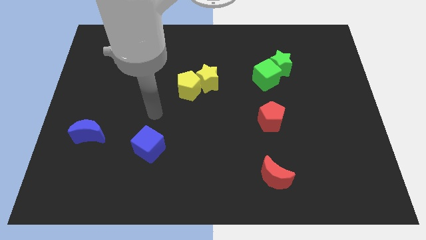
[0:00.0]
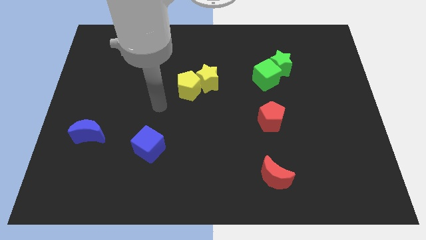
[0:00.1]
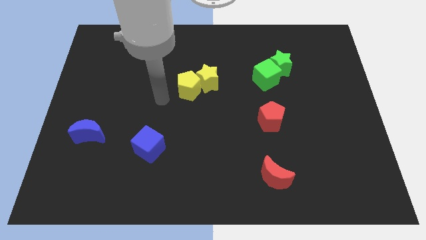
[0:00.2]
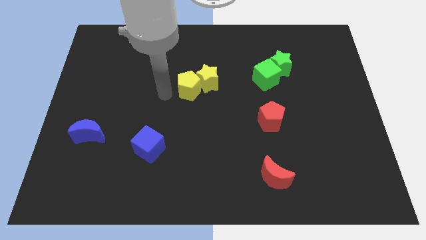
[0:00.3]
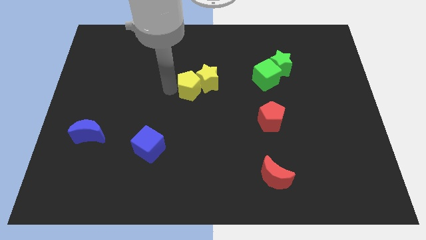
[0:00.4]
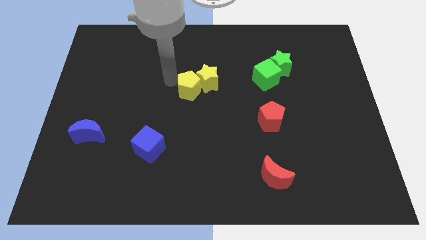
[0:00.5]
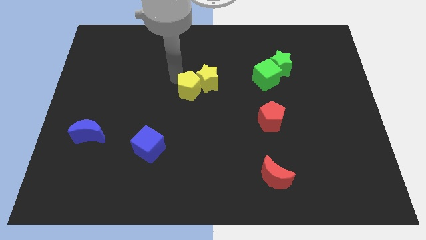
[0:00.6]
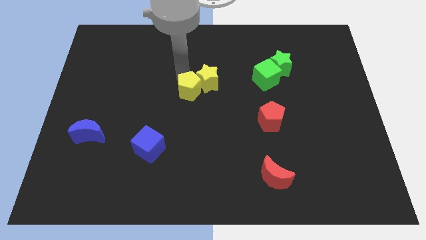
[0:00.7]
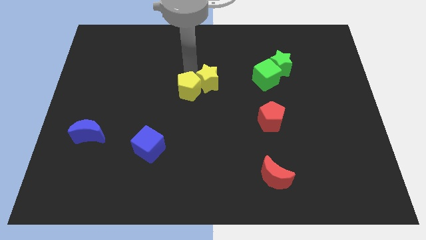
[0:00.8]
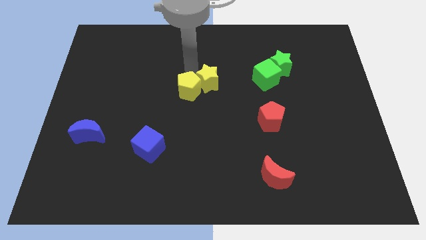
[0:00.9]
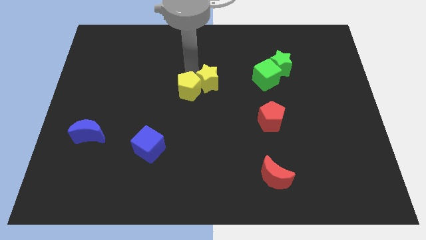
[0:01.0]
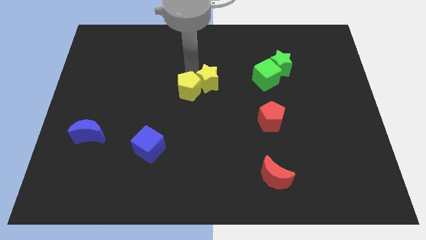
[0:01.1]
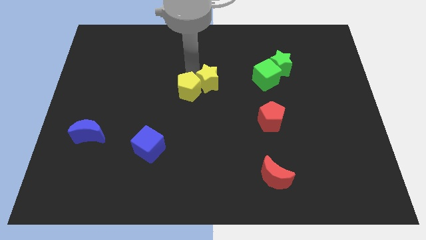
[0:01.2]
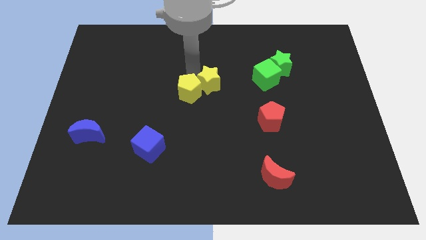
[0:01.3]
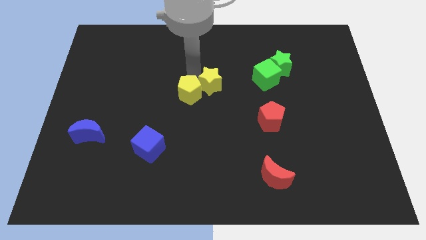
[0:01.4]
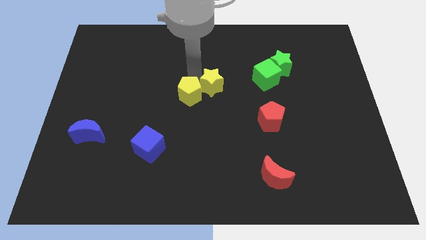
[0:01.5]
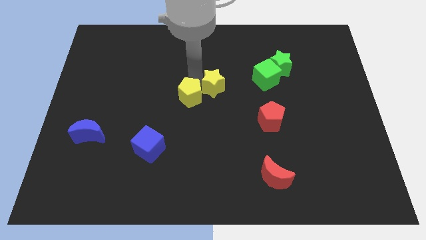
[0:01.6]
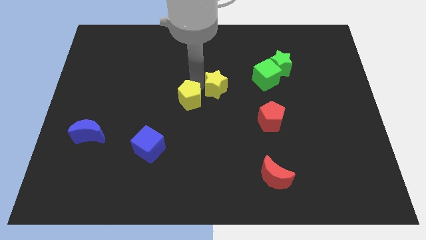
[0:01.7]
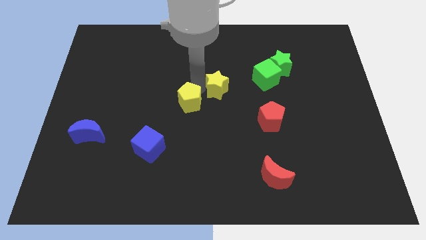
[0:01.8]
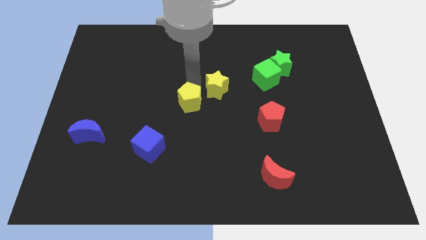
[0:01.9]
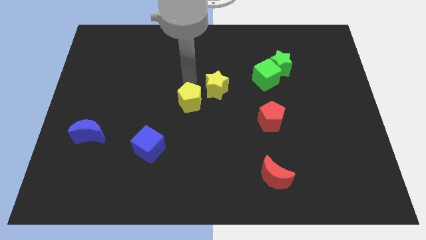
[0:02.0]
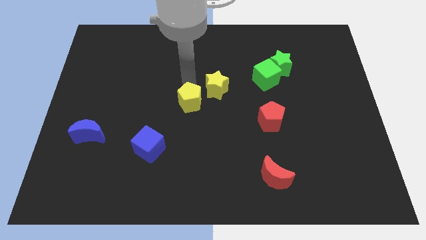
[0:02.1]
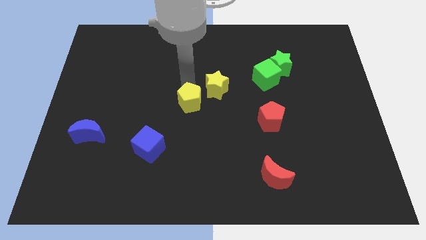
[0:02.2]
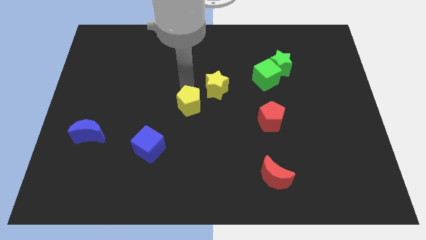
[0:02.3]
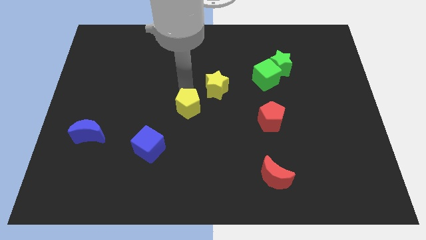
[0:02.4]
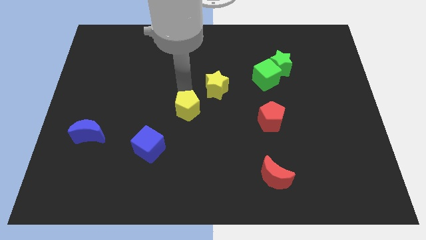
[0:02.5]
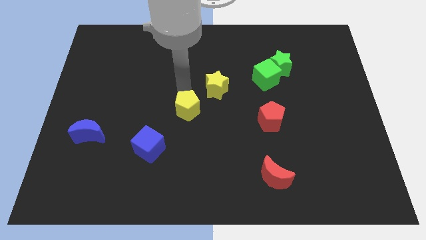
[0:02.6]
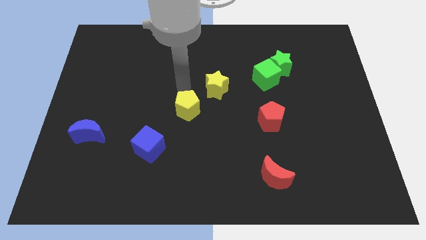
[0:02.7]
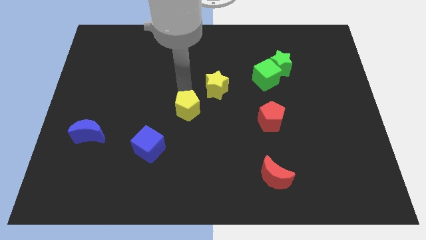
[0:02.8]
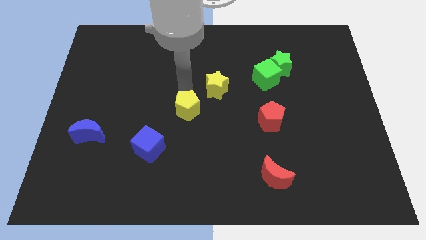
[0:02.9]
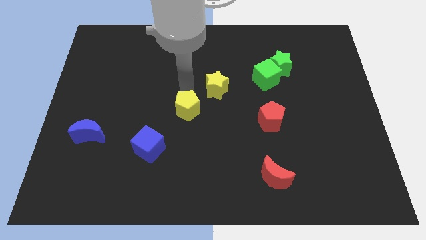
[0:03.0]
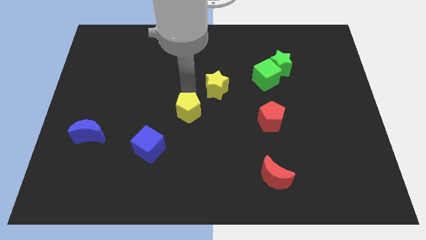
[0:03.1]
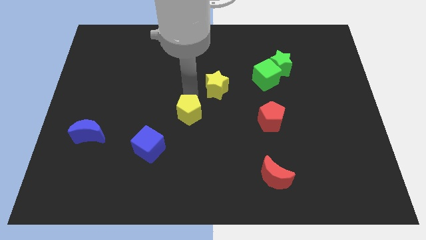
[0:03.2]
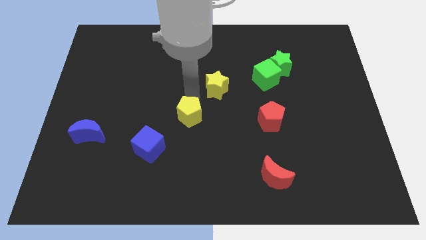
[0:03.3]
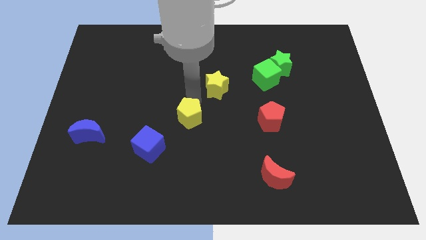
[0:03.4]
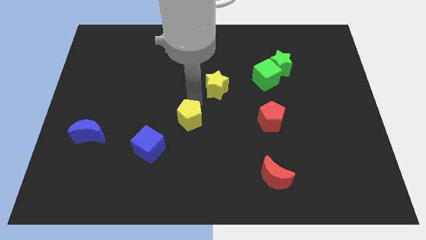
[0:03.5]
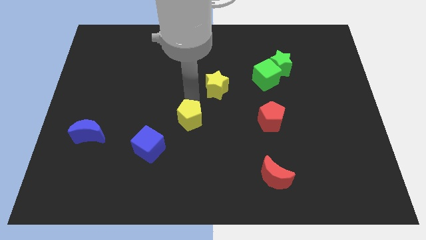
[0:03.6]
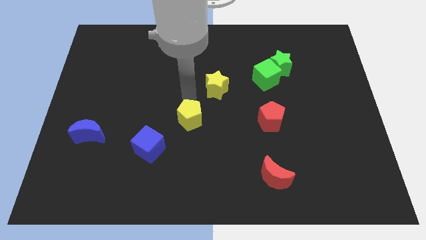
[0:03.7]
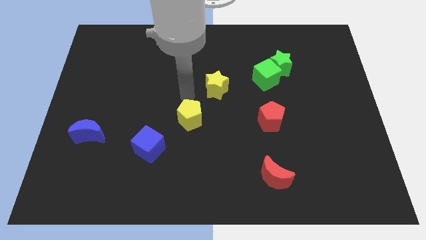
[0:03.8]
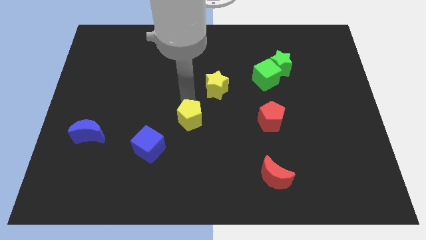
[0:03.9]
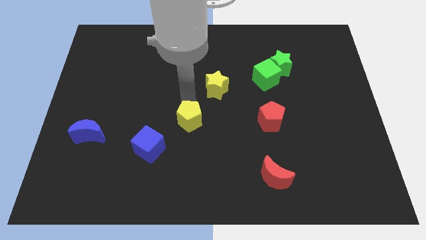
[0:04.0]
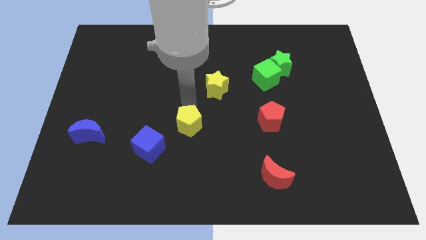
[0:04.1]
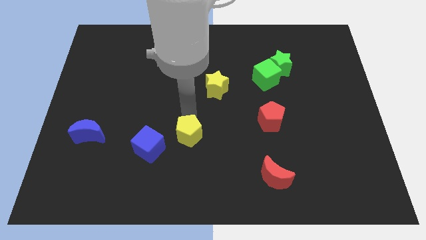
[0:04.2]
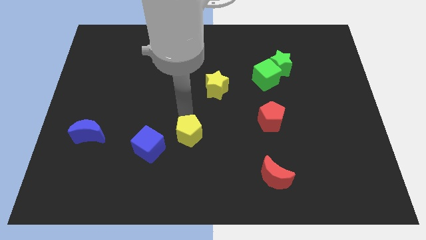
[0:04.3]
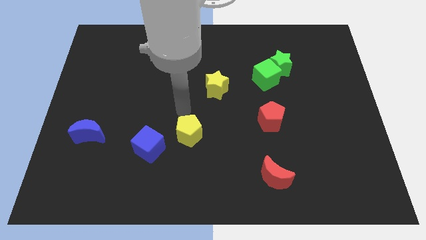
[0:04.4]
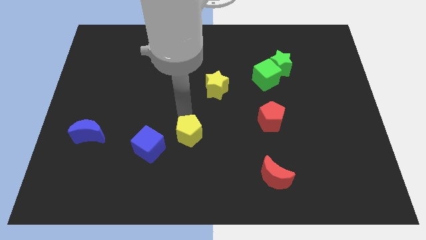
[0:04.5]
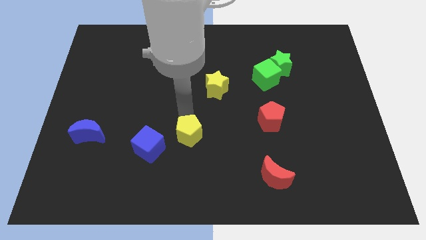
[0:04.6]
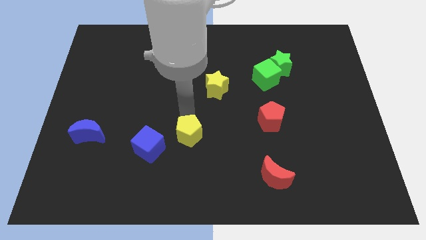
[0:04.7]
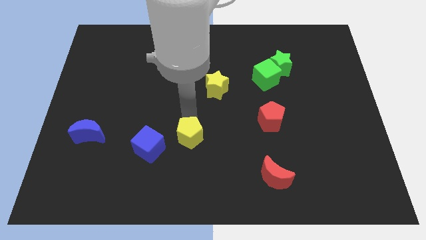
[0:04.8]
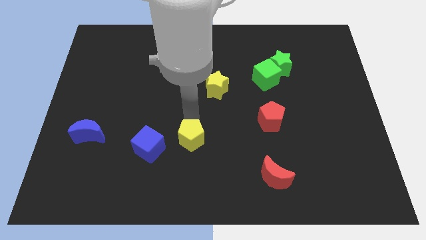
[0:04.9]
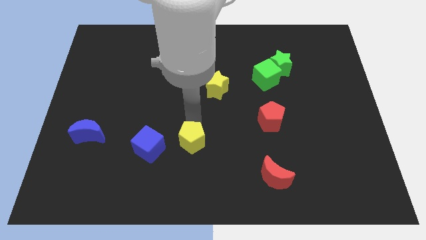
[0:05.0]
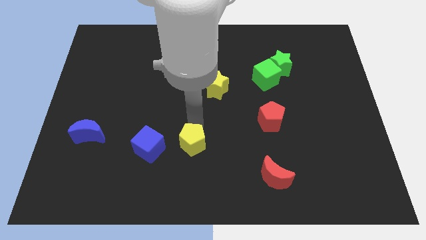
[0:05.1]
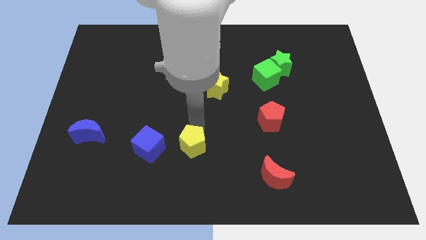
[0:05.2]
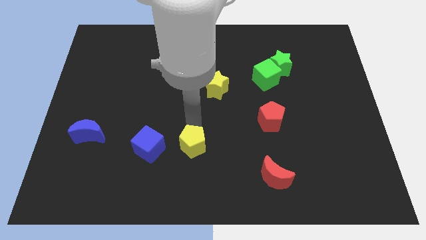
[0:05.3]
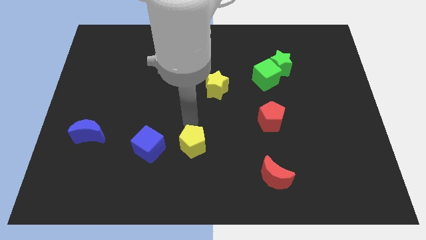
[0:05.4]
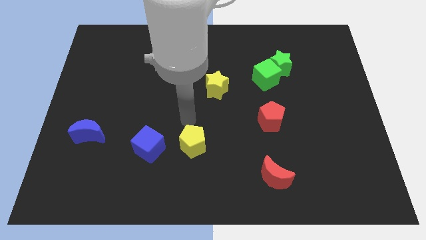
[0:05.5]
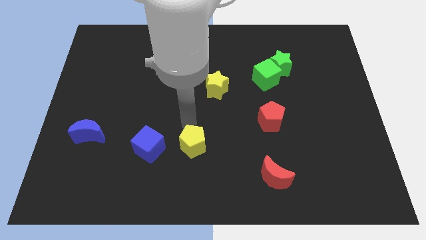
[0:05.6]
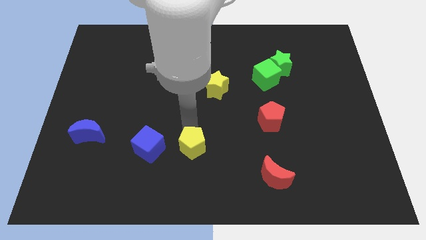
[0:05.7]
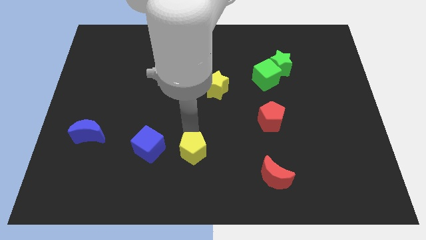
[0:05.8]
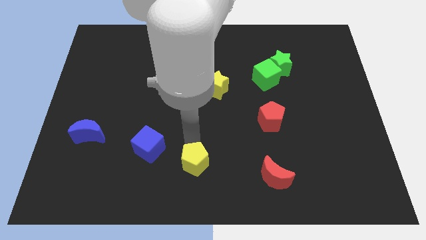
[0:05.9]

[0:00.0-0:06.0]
push the yellow pentagon to the bottom side
